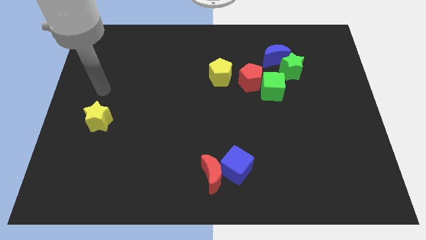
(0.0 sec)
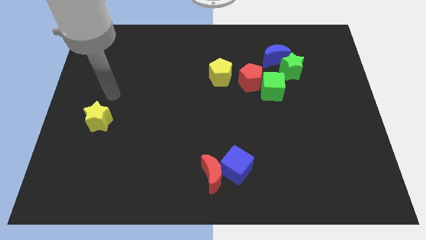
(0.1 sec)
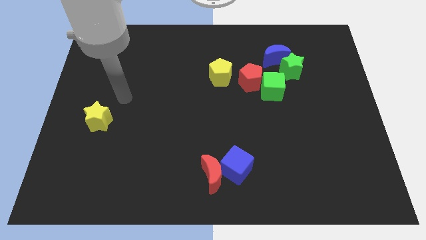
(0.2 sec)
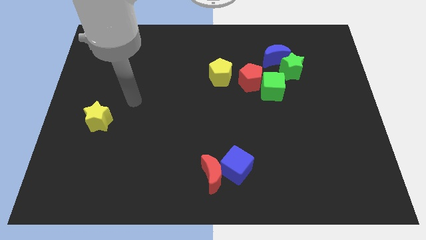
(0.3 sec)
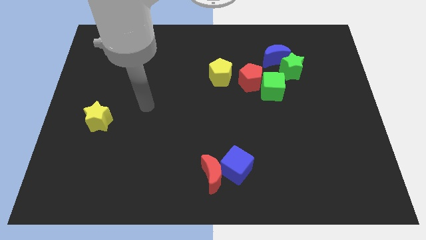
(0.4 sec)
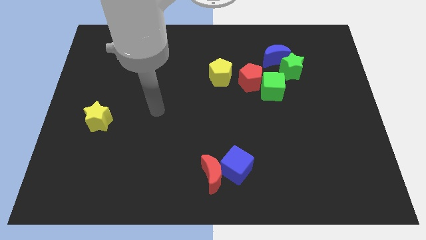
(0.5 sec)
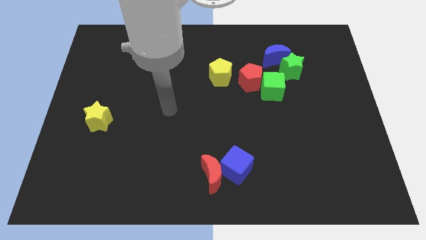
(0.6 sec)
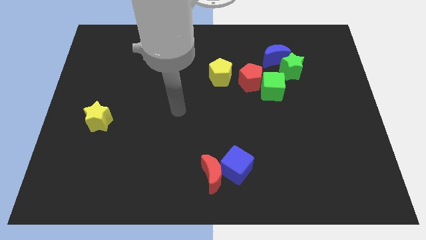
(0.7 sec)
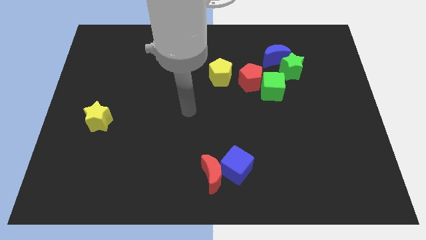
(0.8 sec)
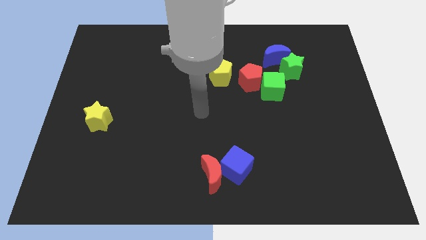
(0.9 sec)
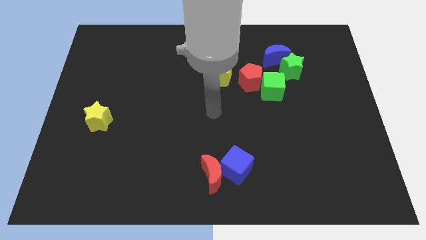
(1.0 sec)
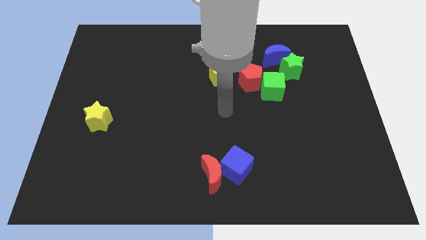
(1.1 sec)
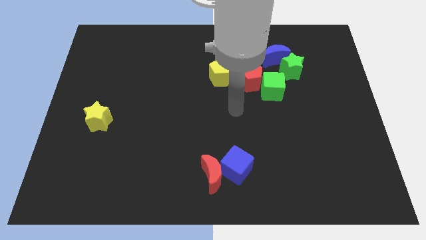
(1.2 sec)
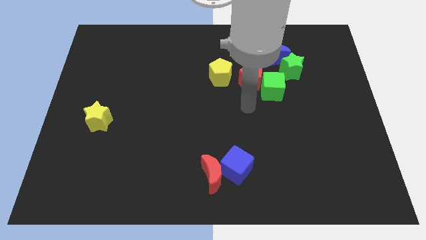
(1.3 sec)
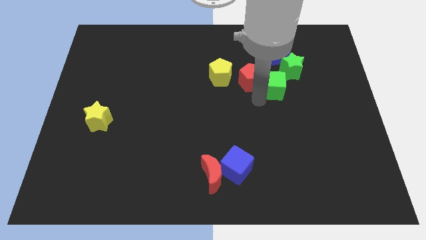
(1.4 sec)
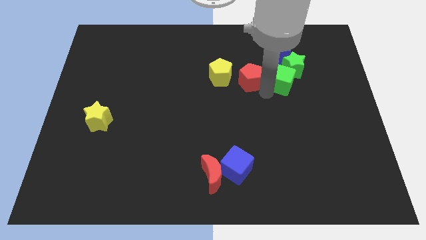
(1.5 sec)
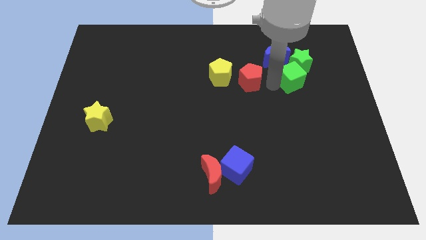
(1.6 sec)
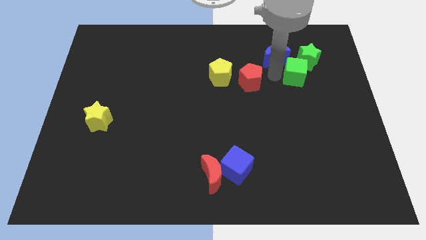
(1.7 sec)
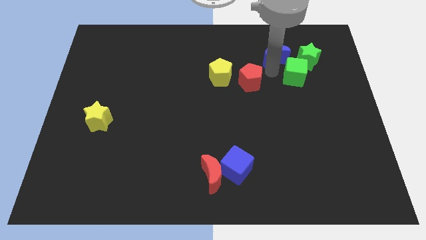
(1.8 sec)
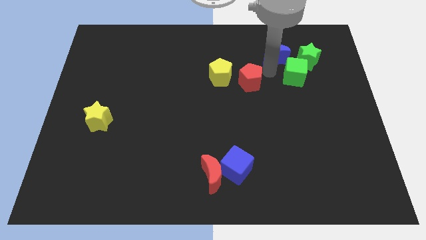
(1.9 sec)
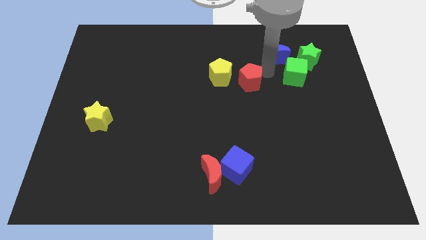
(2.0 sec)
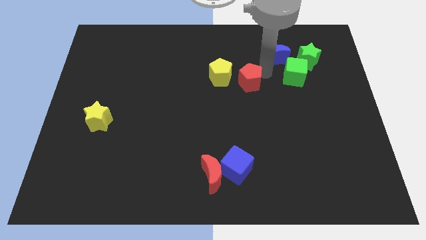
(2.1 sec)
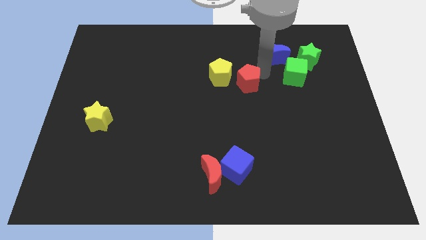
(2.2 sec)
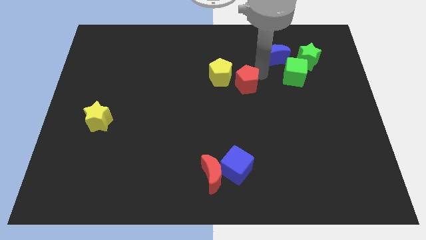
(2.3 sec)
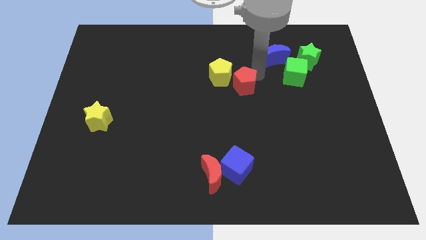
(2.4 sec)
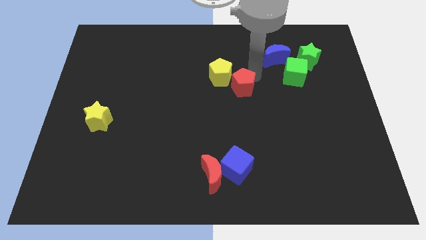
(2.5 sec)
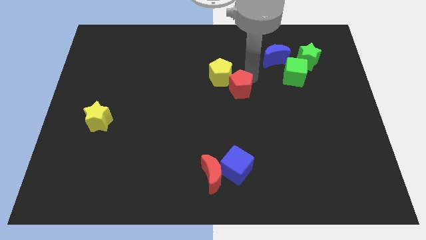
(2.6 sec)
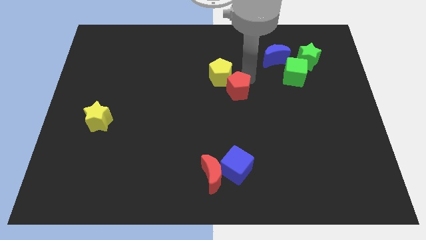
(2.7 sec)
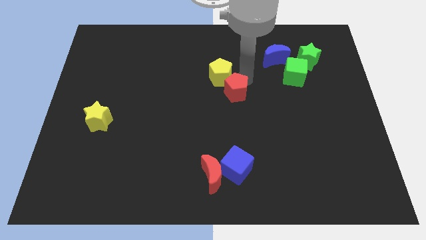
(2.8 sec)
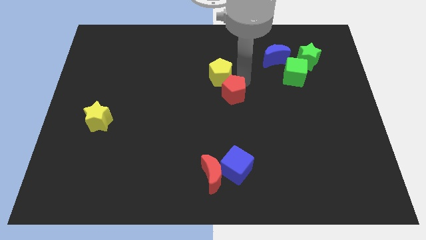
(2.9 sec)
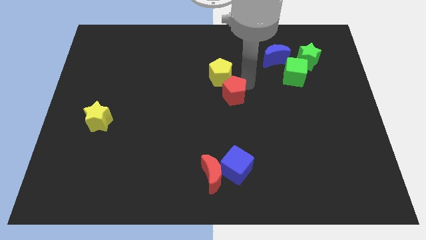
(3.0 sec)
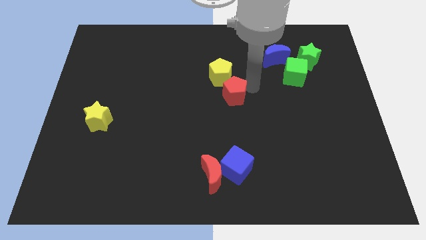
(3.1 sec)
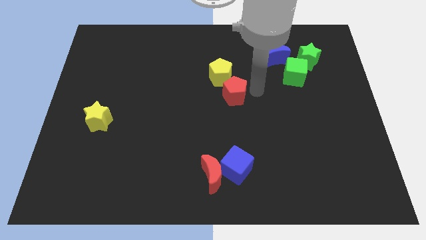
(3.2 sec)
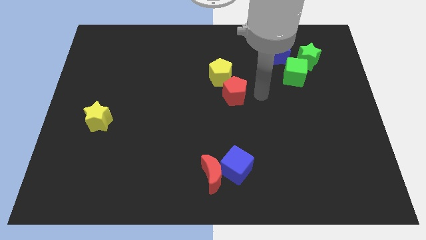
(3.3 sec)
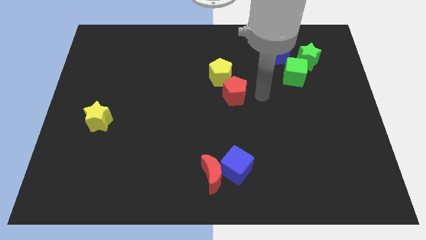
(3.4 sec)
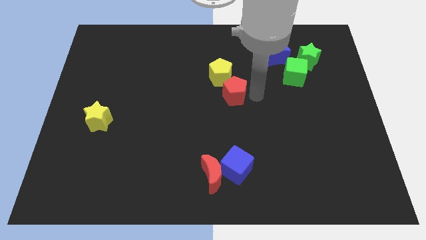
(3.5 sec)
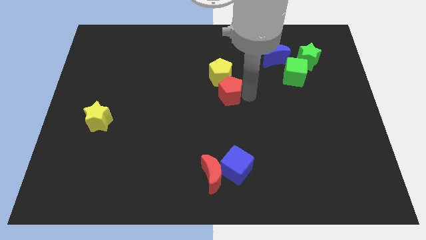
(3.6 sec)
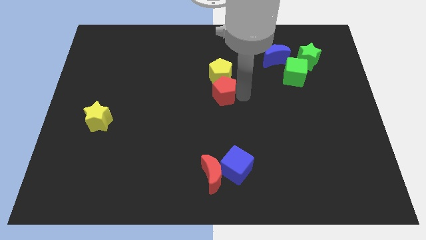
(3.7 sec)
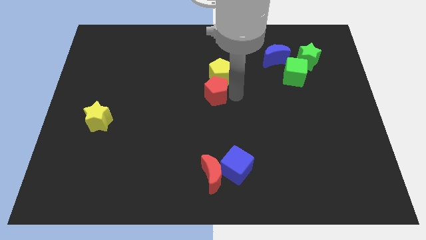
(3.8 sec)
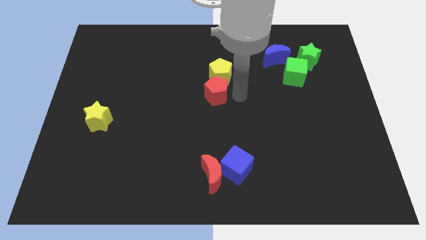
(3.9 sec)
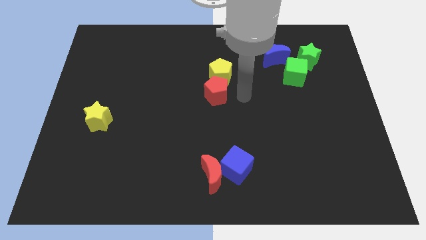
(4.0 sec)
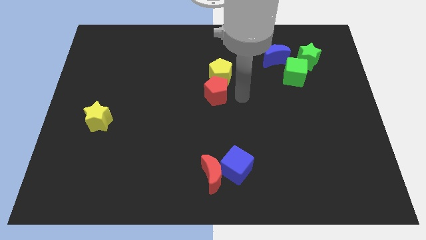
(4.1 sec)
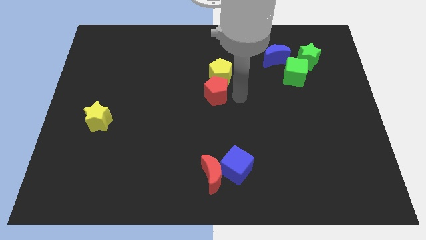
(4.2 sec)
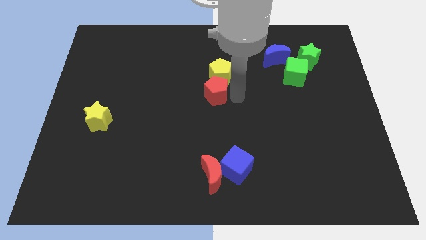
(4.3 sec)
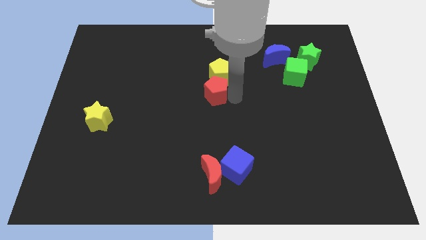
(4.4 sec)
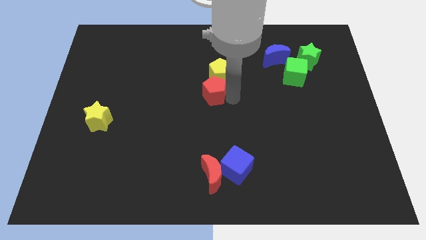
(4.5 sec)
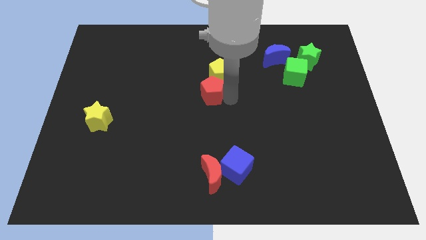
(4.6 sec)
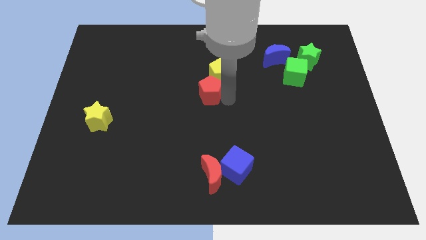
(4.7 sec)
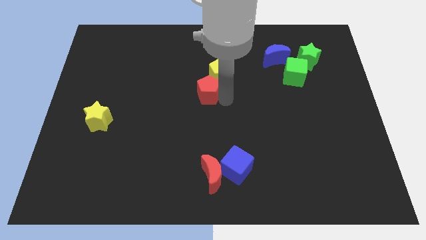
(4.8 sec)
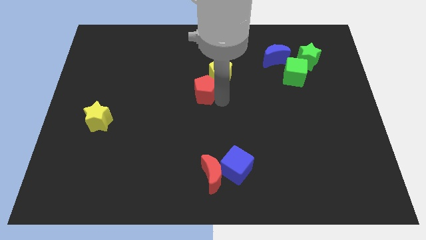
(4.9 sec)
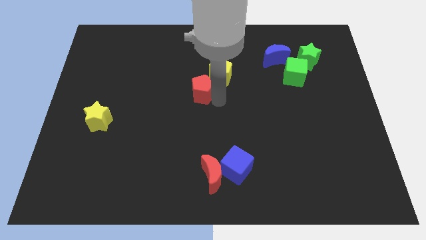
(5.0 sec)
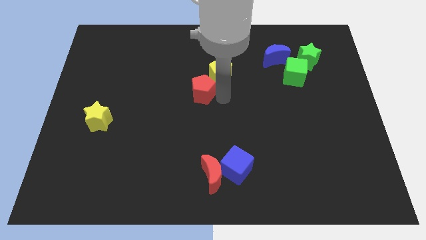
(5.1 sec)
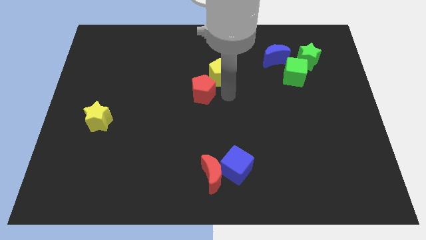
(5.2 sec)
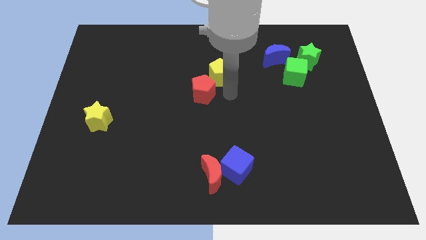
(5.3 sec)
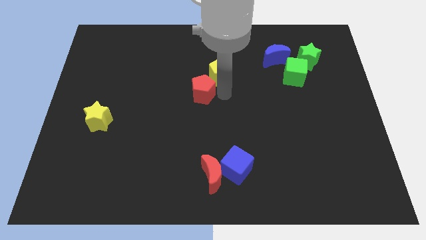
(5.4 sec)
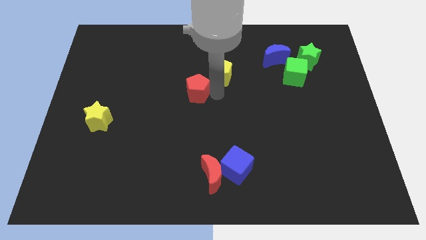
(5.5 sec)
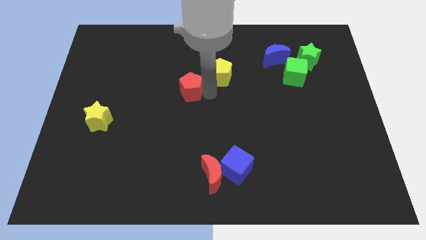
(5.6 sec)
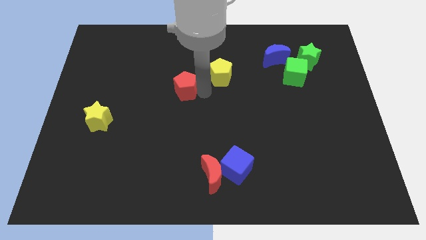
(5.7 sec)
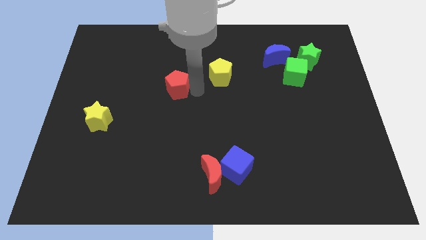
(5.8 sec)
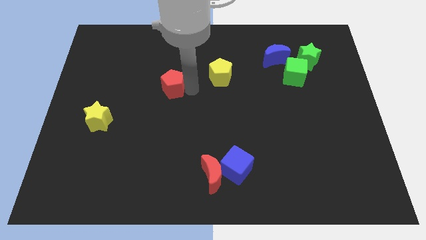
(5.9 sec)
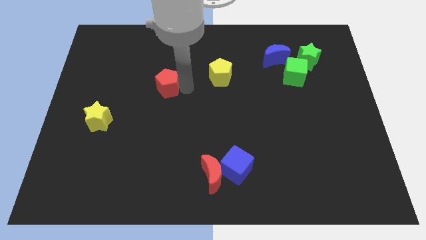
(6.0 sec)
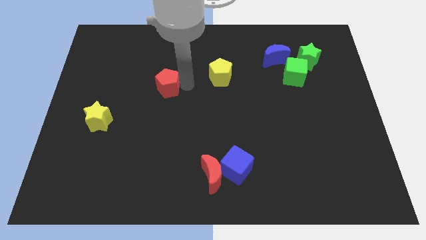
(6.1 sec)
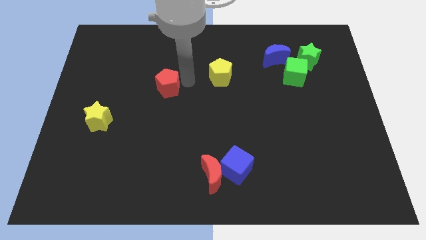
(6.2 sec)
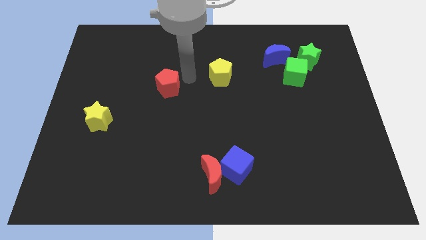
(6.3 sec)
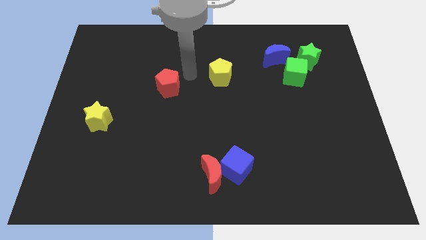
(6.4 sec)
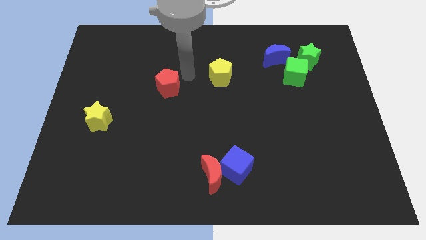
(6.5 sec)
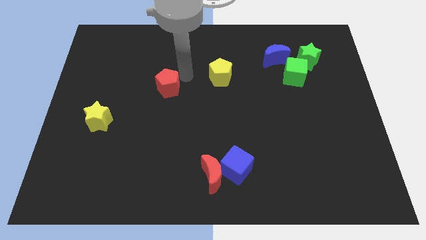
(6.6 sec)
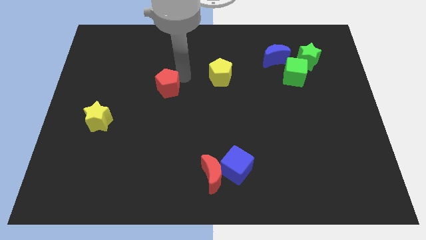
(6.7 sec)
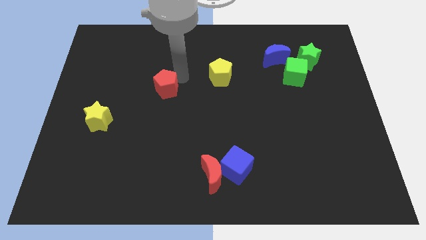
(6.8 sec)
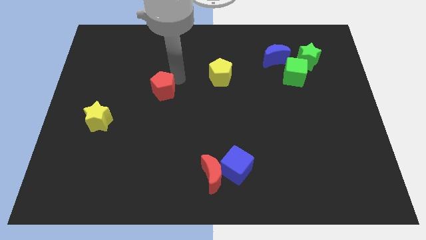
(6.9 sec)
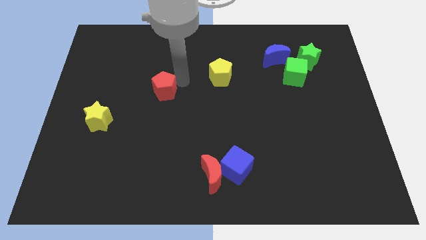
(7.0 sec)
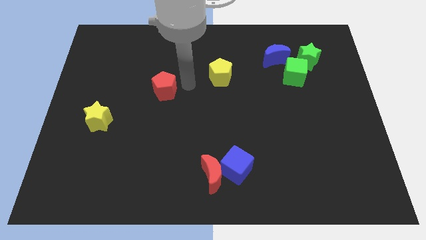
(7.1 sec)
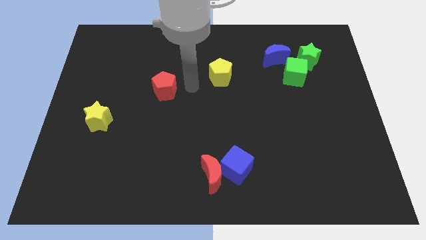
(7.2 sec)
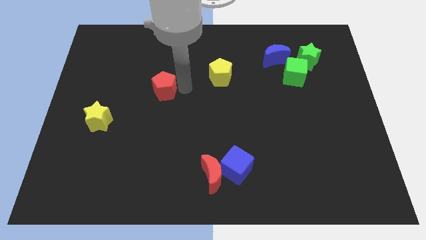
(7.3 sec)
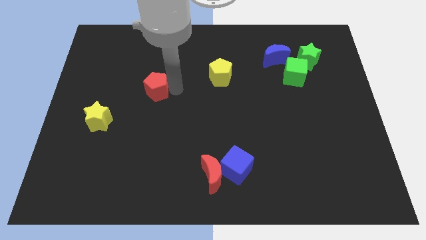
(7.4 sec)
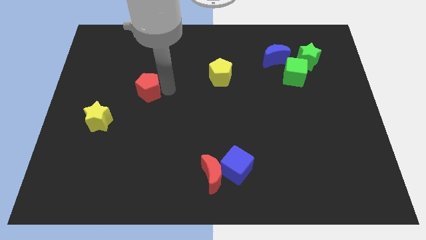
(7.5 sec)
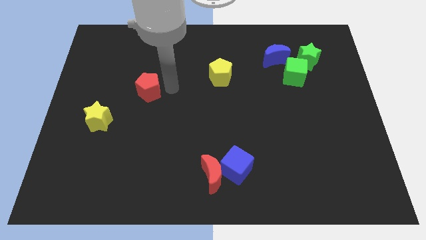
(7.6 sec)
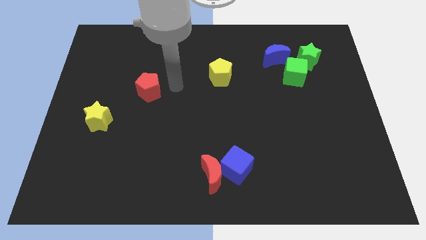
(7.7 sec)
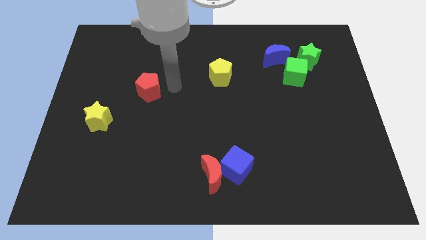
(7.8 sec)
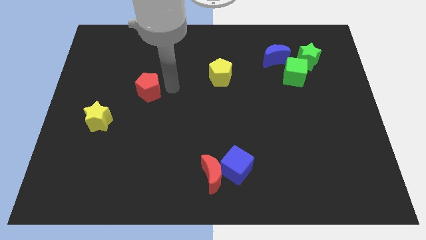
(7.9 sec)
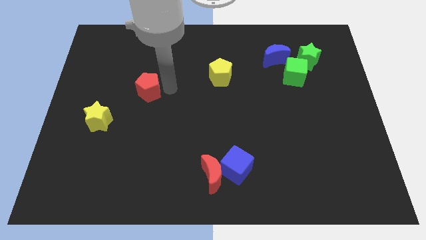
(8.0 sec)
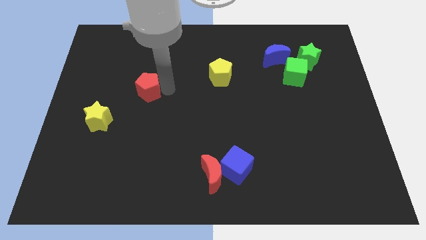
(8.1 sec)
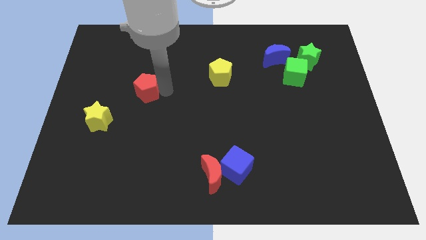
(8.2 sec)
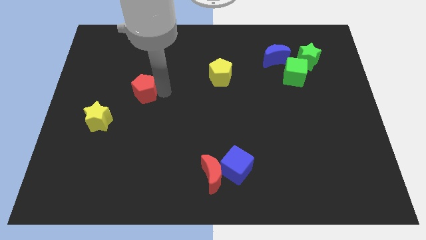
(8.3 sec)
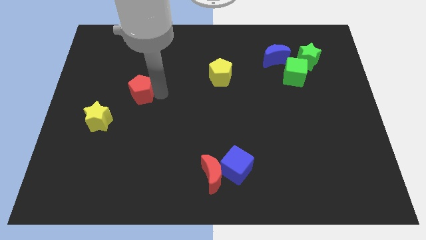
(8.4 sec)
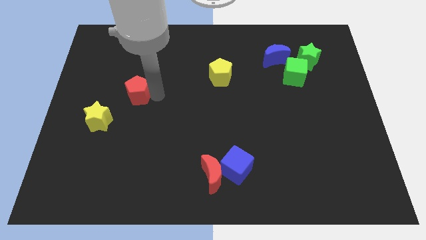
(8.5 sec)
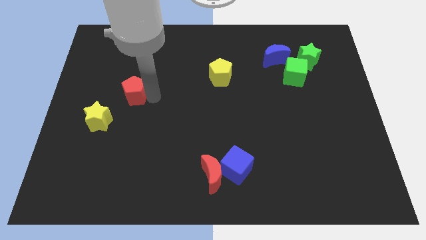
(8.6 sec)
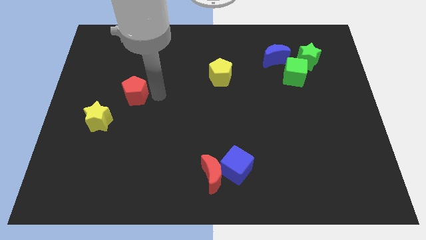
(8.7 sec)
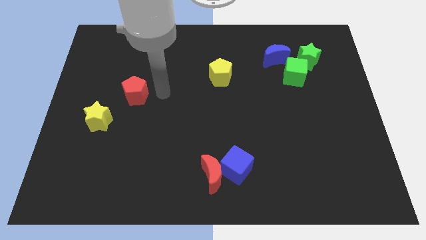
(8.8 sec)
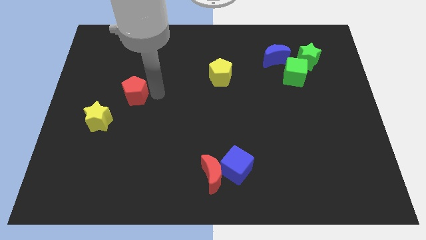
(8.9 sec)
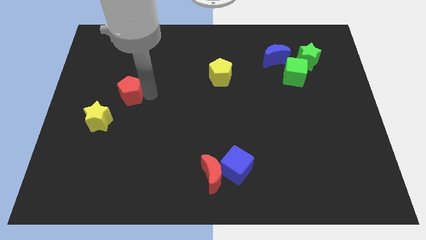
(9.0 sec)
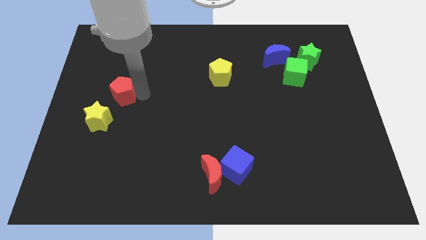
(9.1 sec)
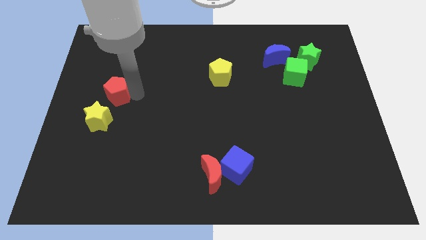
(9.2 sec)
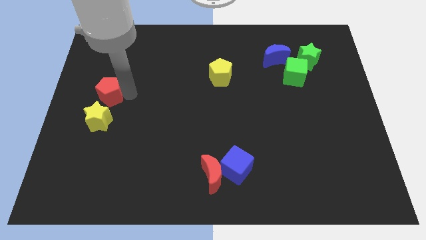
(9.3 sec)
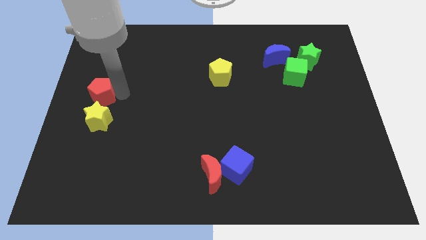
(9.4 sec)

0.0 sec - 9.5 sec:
push the red pentagon to the left side
